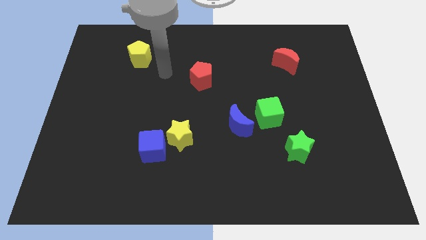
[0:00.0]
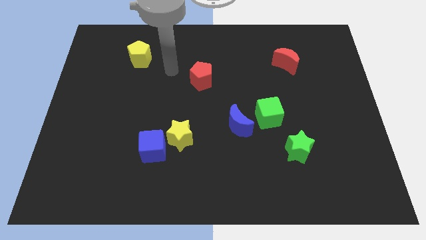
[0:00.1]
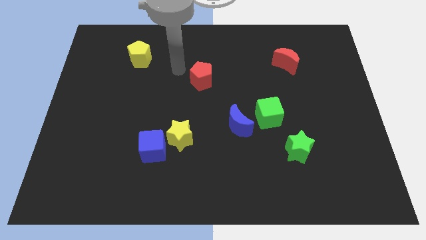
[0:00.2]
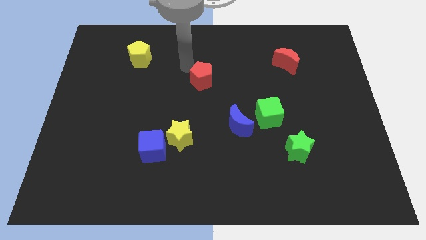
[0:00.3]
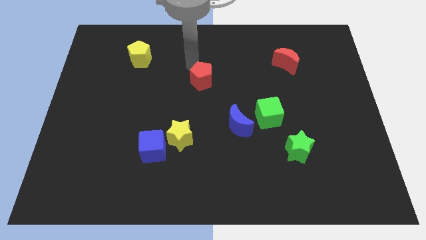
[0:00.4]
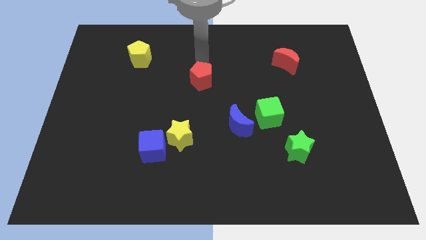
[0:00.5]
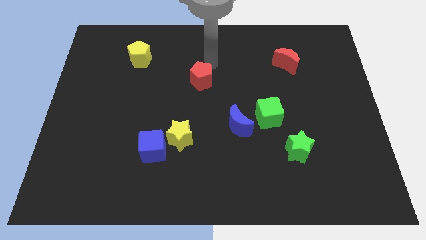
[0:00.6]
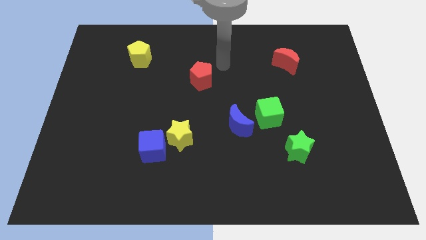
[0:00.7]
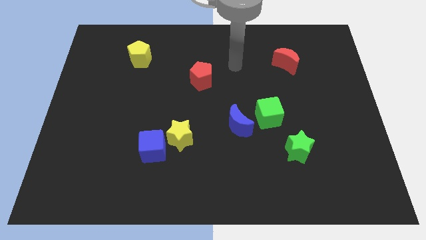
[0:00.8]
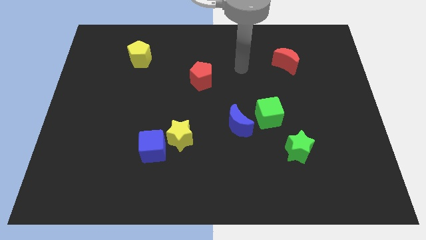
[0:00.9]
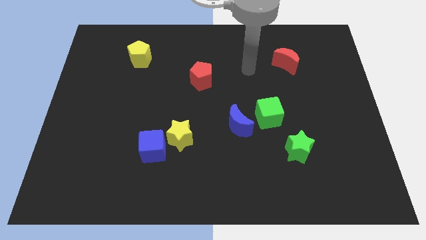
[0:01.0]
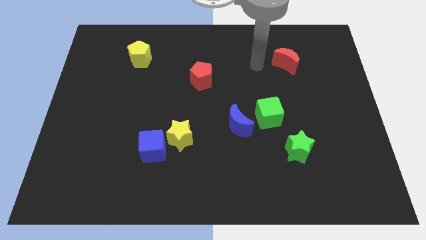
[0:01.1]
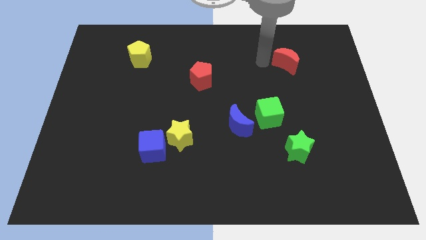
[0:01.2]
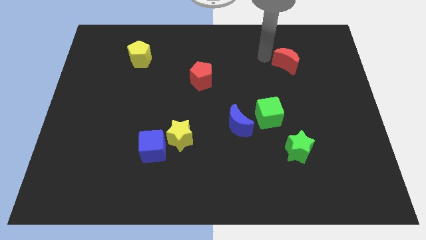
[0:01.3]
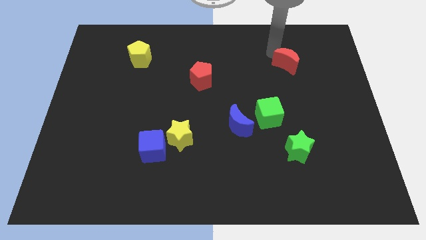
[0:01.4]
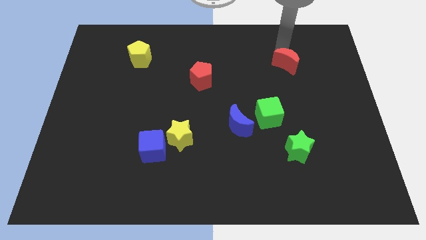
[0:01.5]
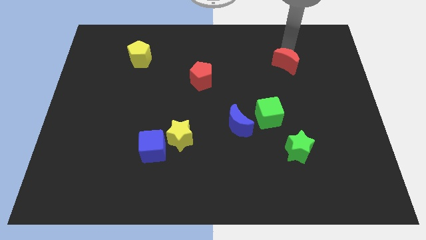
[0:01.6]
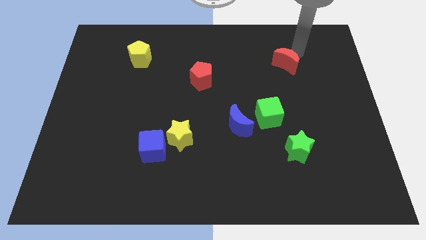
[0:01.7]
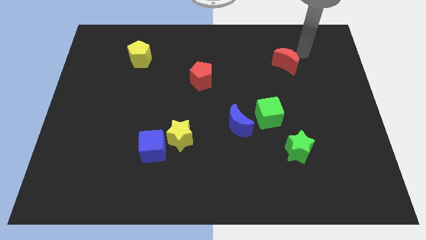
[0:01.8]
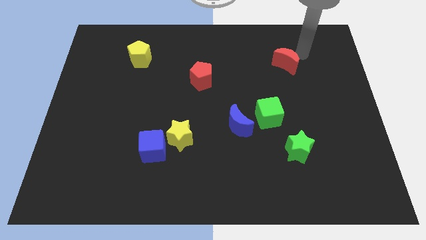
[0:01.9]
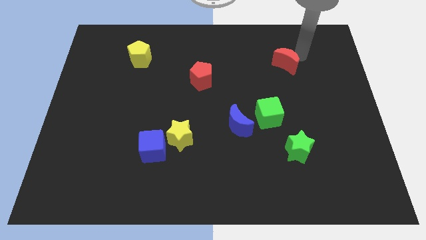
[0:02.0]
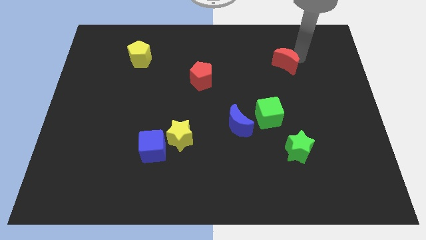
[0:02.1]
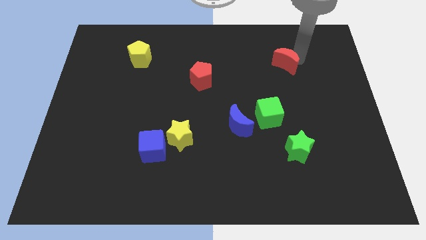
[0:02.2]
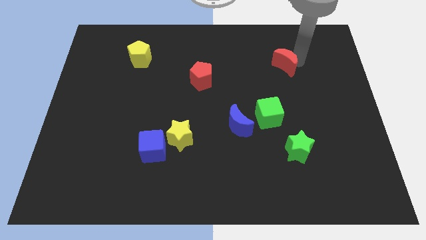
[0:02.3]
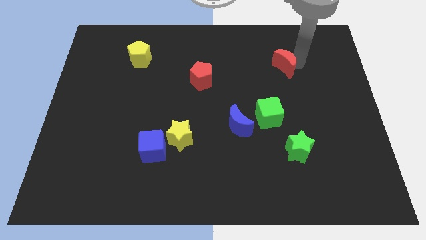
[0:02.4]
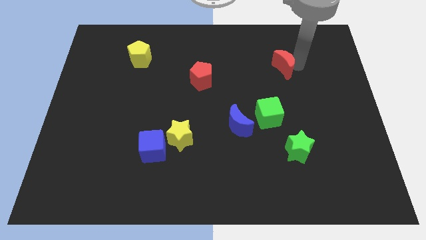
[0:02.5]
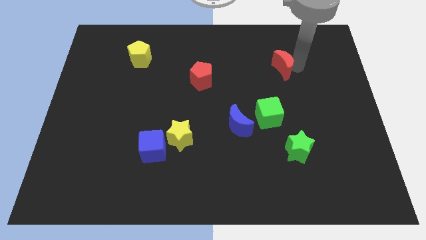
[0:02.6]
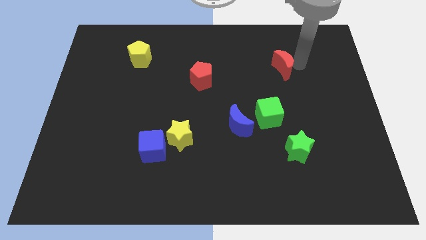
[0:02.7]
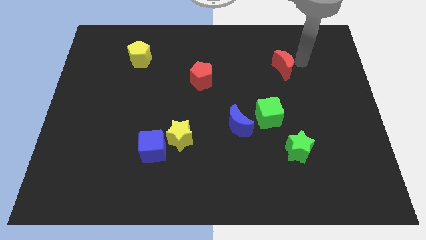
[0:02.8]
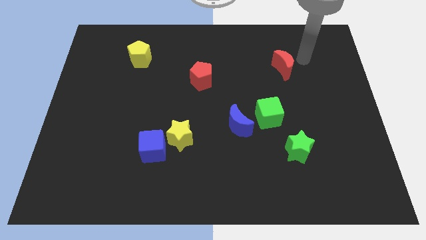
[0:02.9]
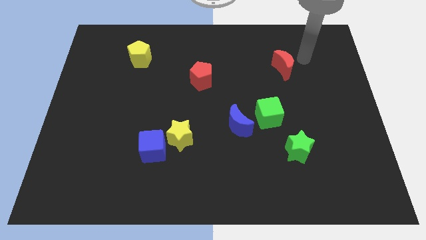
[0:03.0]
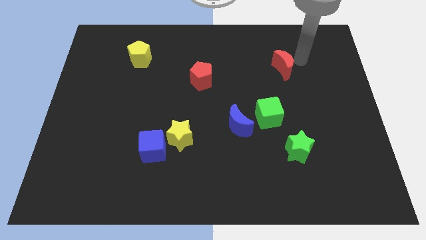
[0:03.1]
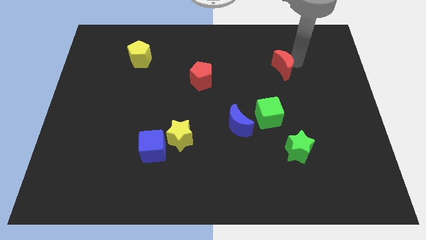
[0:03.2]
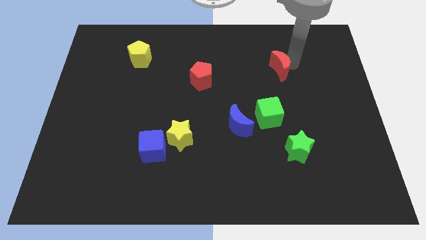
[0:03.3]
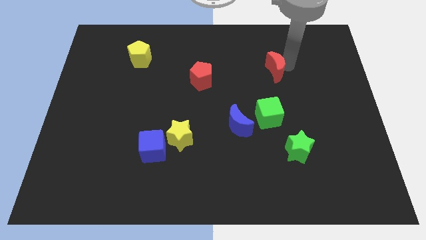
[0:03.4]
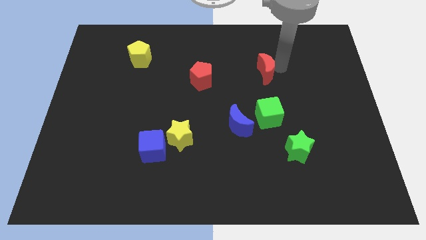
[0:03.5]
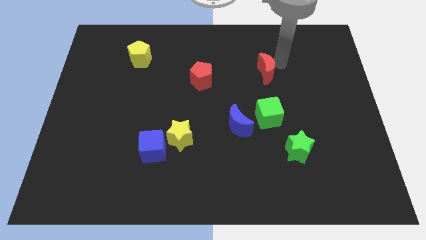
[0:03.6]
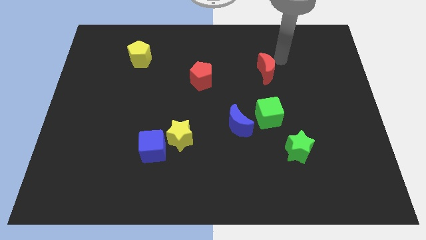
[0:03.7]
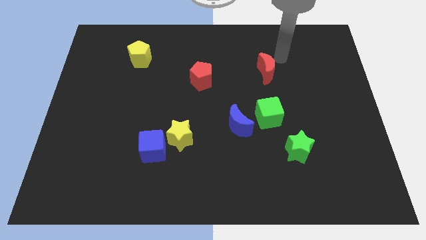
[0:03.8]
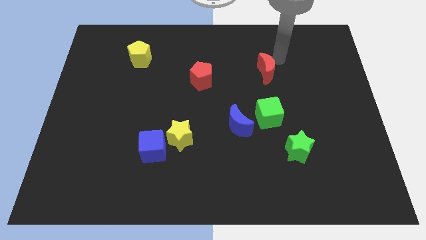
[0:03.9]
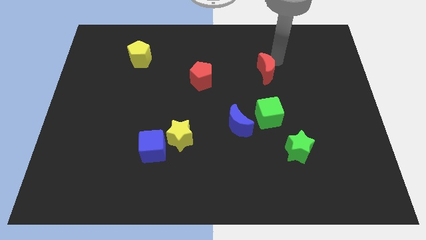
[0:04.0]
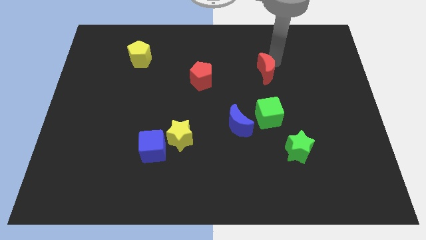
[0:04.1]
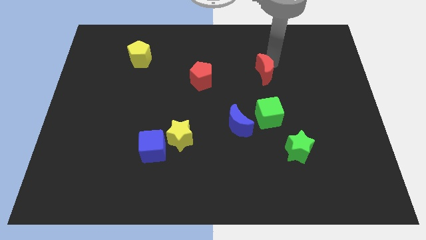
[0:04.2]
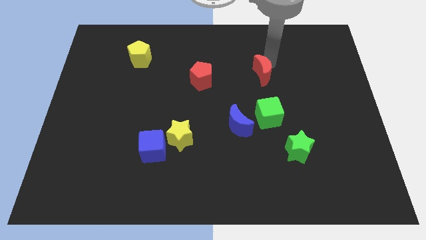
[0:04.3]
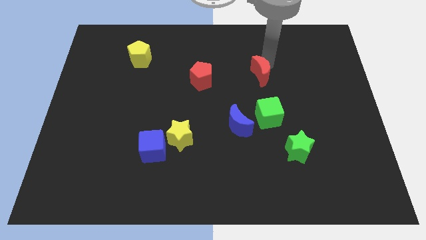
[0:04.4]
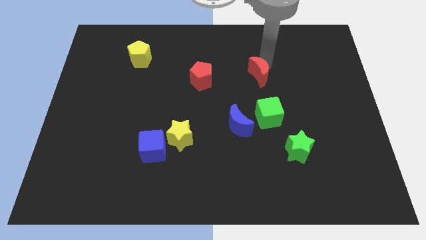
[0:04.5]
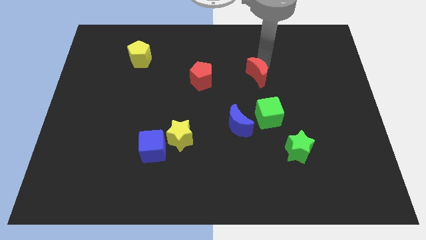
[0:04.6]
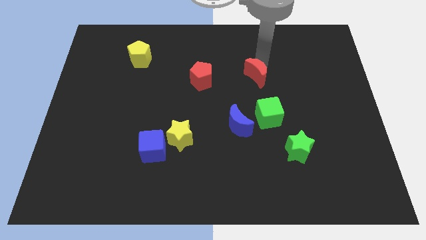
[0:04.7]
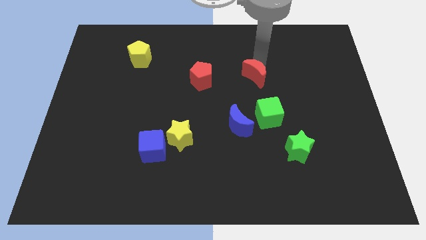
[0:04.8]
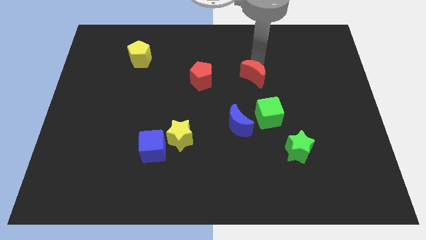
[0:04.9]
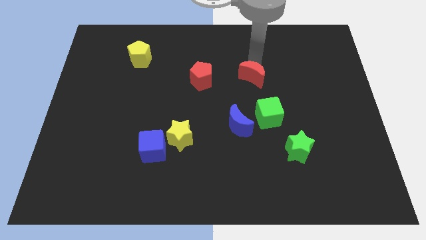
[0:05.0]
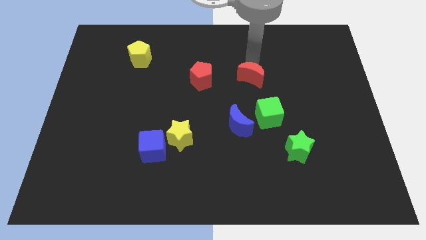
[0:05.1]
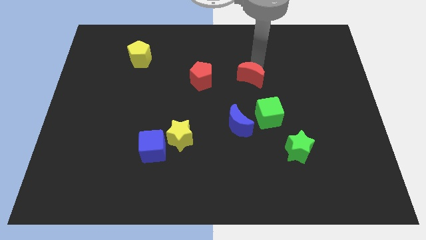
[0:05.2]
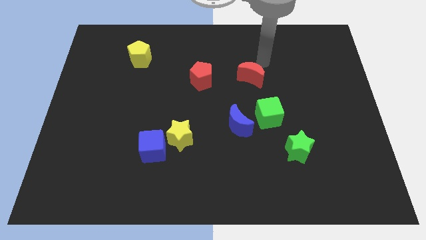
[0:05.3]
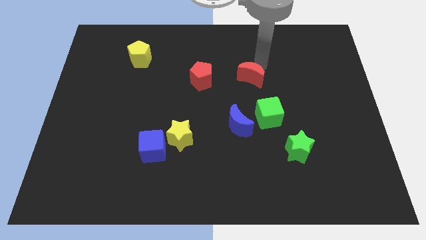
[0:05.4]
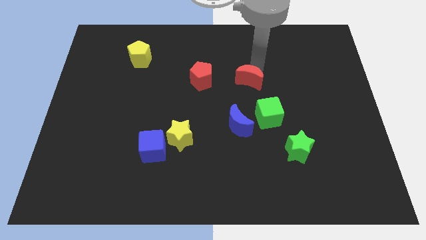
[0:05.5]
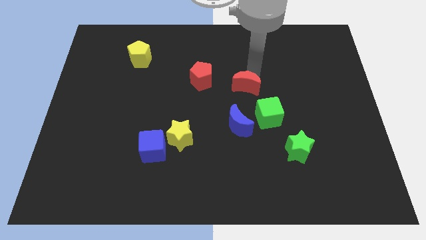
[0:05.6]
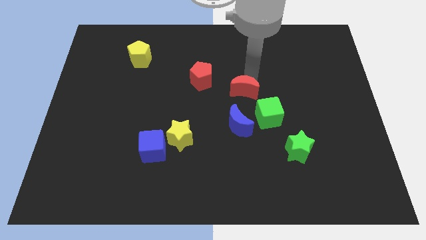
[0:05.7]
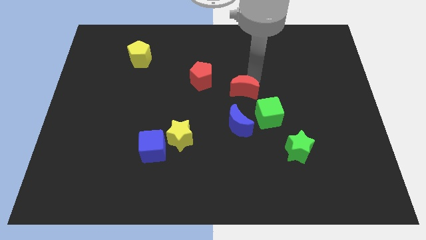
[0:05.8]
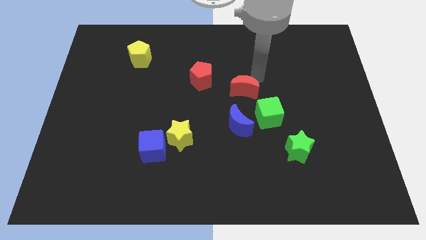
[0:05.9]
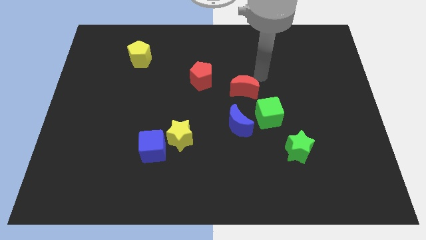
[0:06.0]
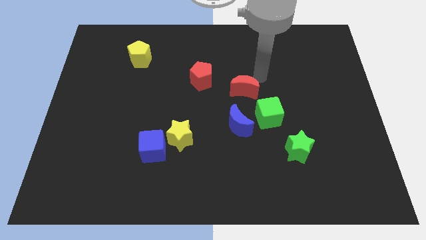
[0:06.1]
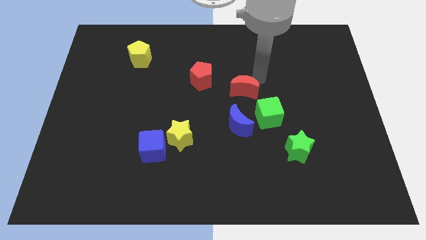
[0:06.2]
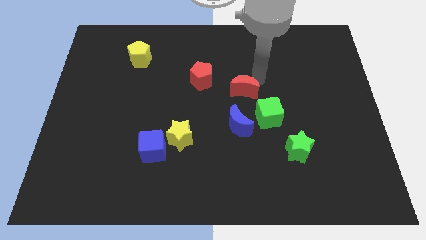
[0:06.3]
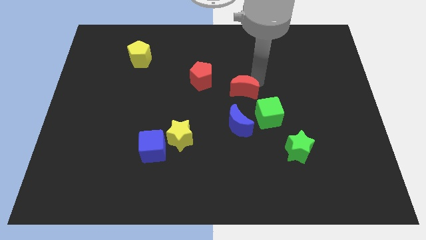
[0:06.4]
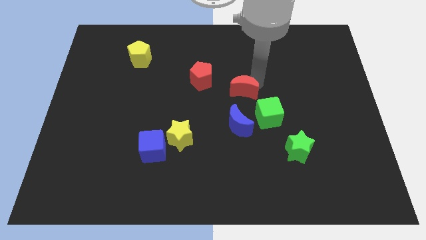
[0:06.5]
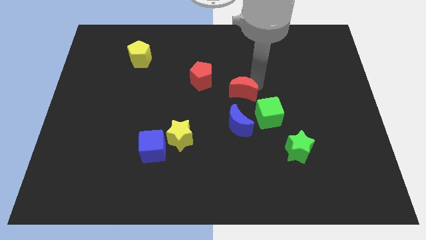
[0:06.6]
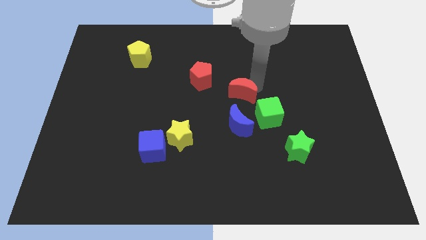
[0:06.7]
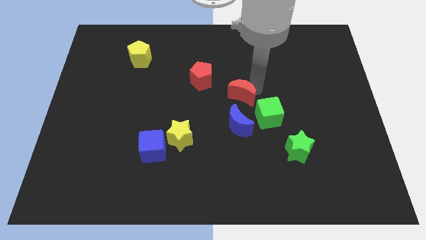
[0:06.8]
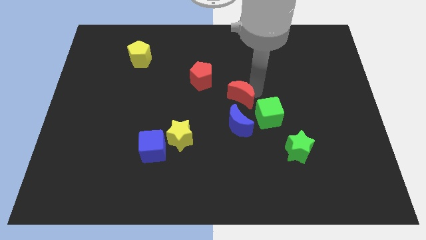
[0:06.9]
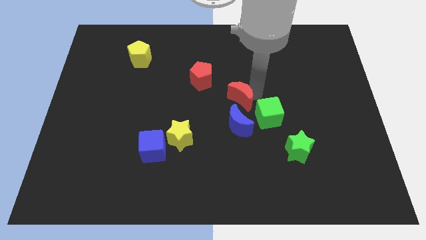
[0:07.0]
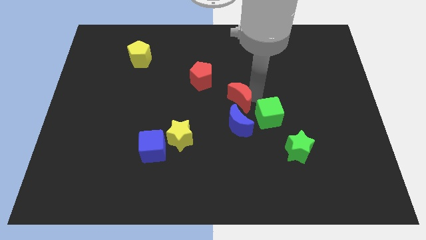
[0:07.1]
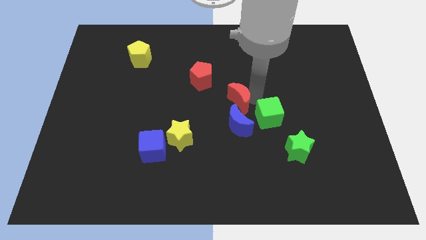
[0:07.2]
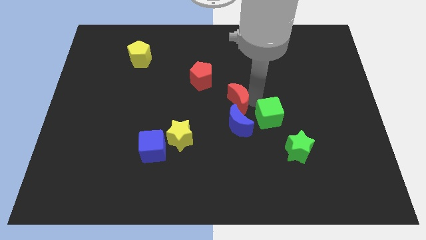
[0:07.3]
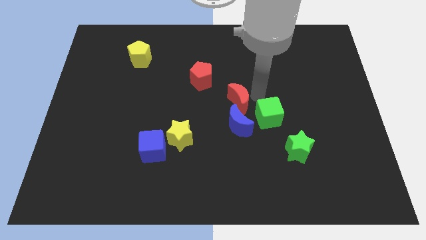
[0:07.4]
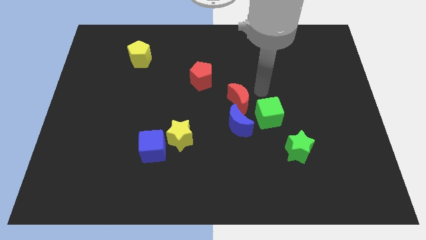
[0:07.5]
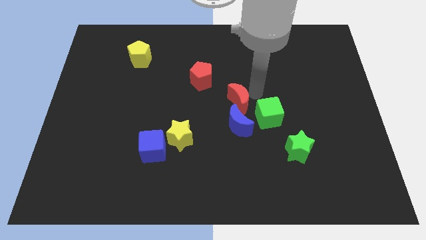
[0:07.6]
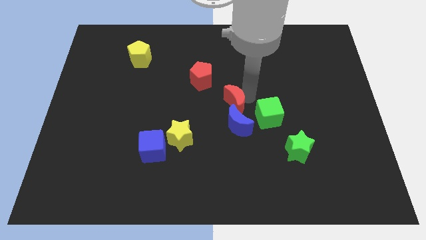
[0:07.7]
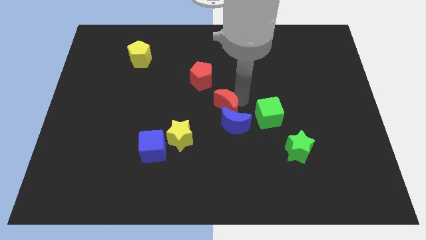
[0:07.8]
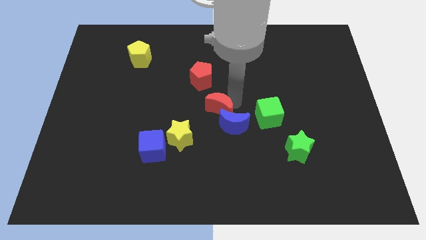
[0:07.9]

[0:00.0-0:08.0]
push the red moon diagonally up and to the right of the yellow star
